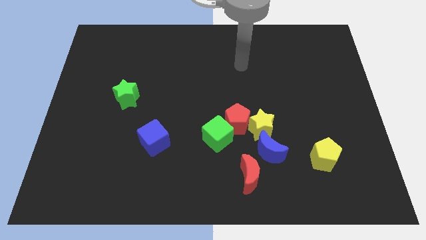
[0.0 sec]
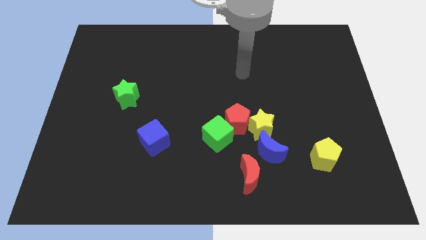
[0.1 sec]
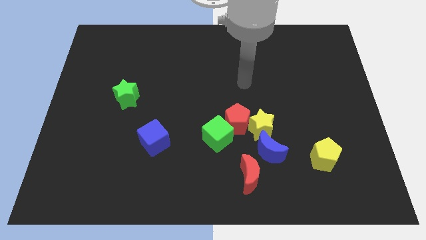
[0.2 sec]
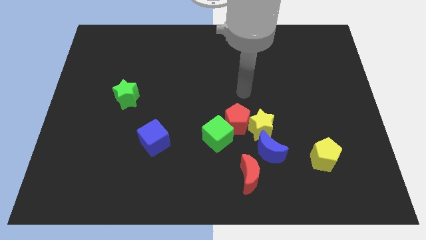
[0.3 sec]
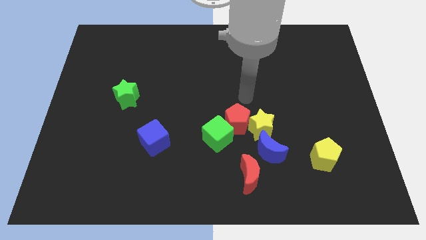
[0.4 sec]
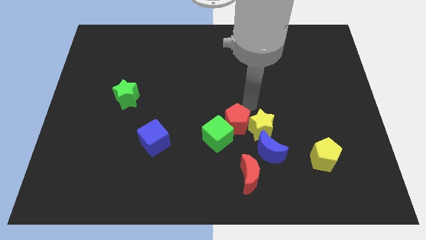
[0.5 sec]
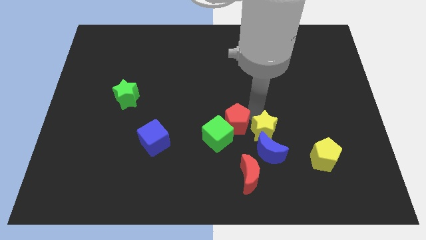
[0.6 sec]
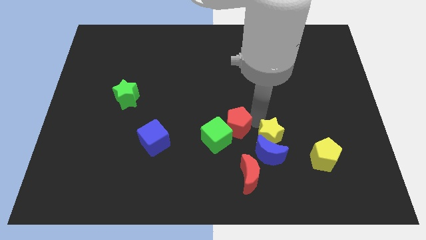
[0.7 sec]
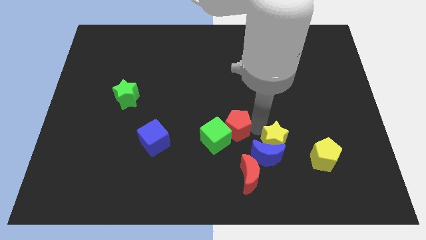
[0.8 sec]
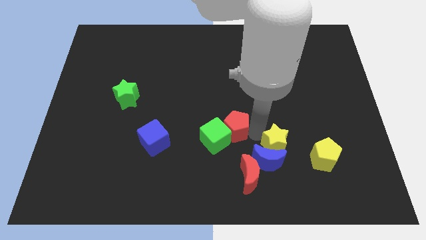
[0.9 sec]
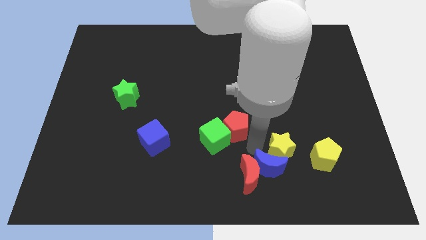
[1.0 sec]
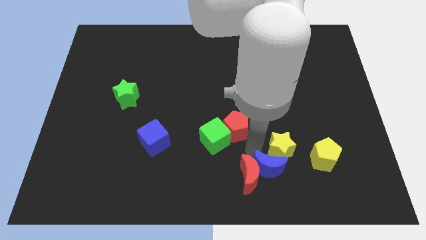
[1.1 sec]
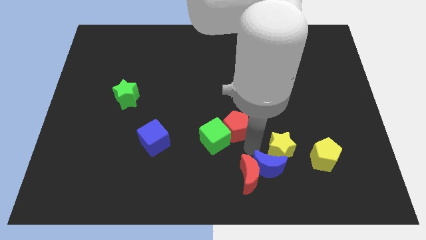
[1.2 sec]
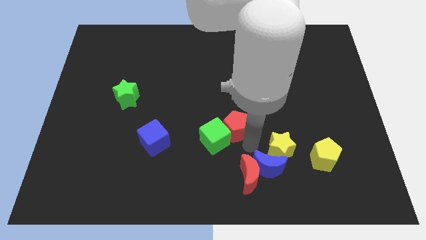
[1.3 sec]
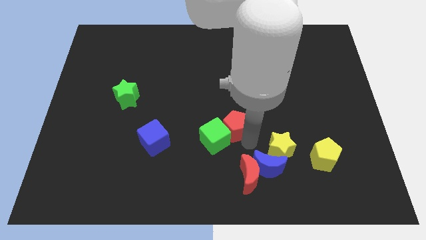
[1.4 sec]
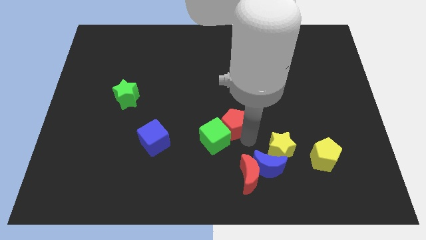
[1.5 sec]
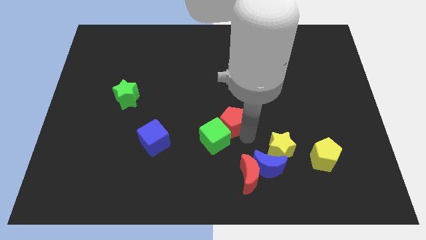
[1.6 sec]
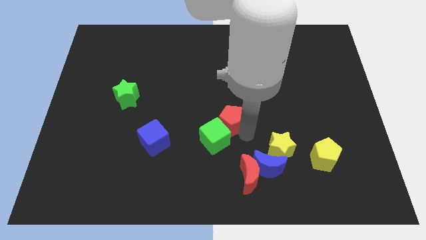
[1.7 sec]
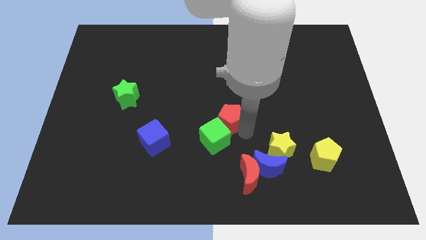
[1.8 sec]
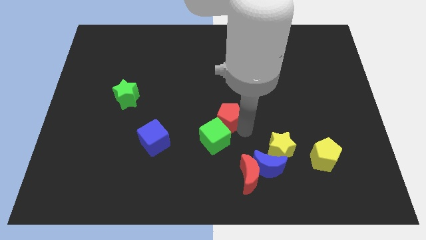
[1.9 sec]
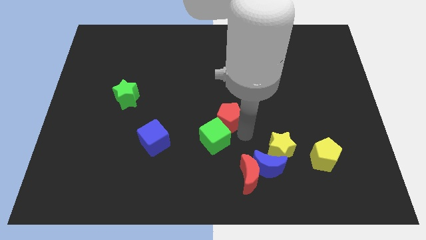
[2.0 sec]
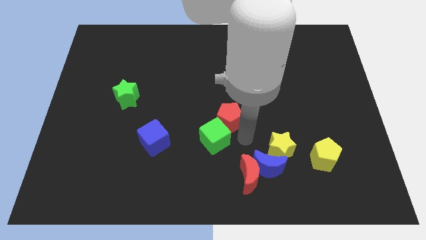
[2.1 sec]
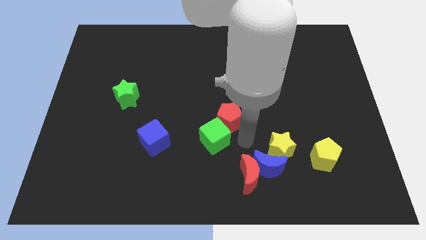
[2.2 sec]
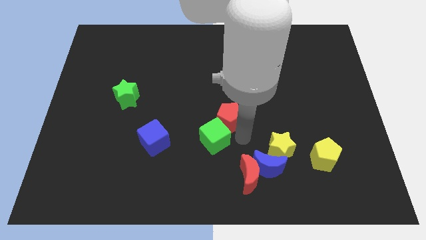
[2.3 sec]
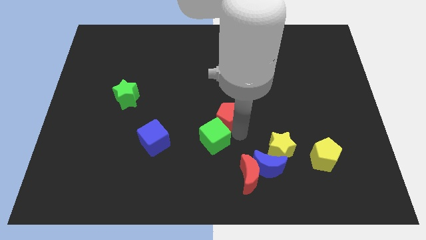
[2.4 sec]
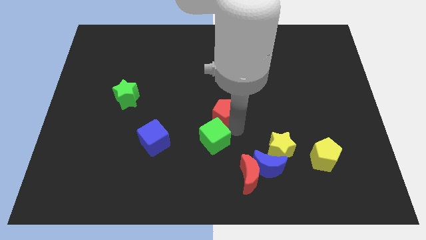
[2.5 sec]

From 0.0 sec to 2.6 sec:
pull the red pentagon apart from the yellow star, green cube, and blue moon

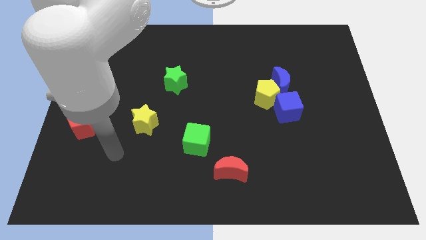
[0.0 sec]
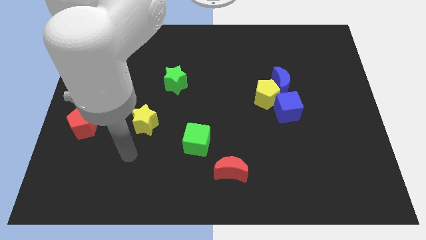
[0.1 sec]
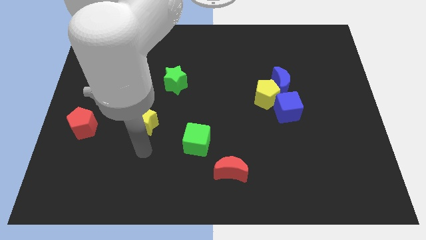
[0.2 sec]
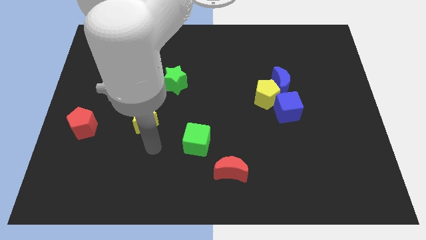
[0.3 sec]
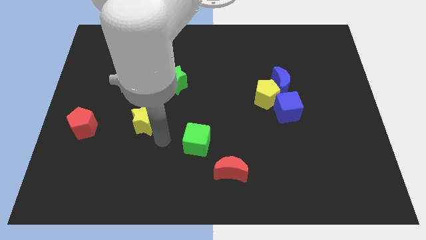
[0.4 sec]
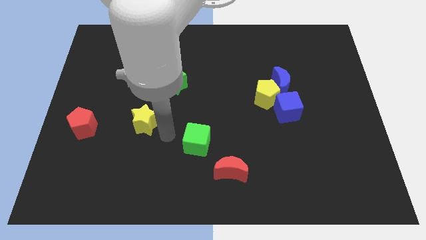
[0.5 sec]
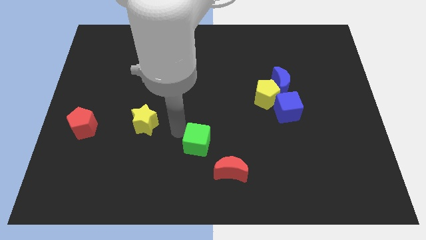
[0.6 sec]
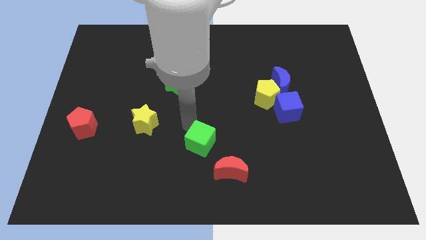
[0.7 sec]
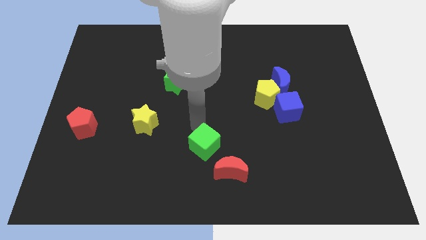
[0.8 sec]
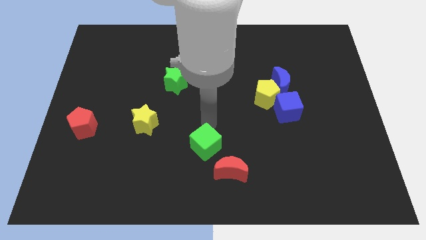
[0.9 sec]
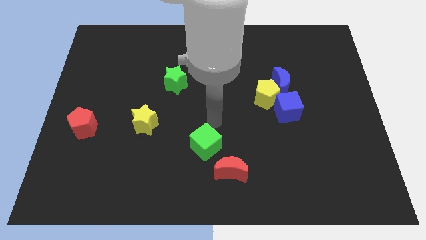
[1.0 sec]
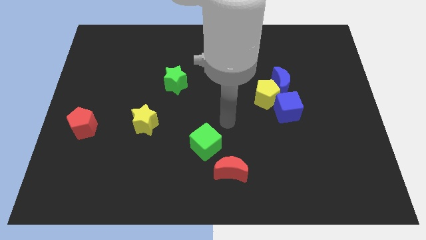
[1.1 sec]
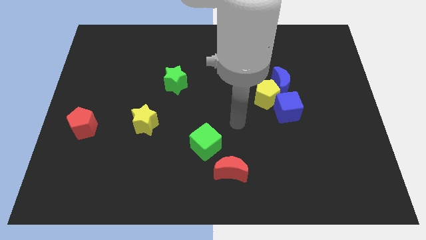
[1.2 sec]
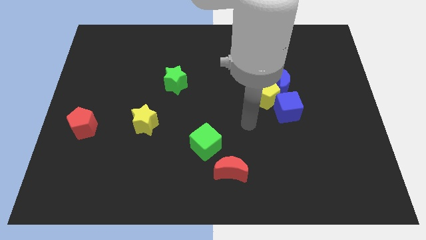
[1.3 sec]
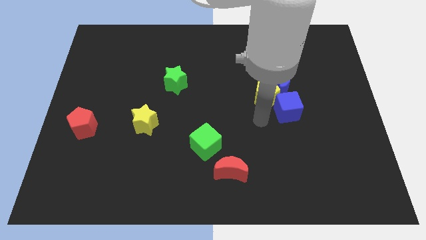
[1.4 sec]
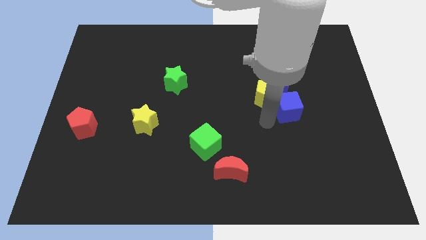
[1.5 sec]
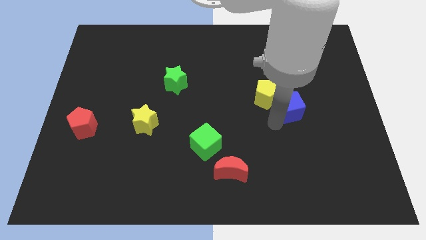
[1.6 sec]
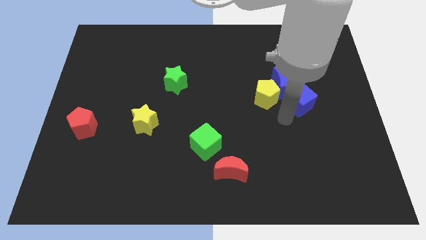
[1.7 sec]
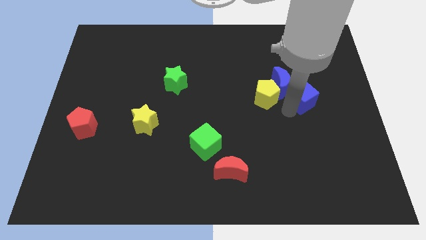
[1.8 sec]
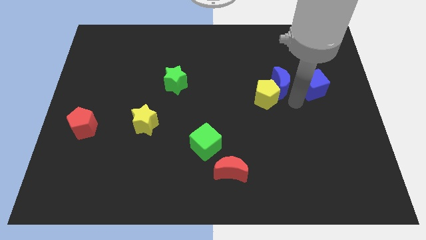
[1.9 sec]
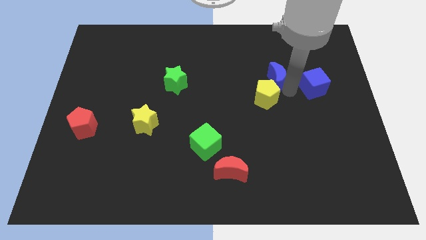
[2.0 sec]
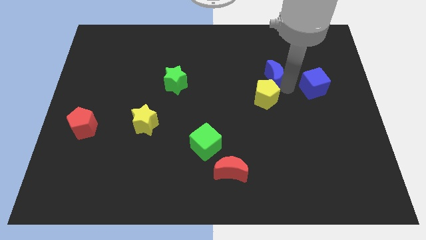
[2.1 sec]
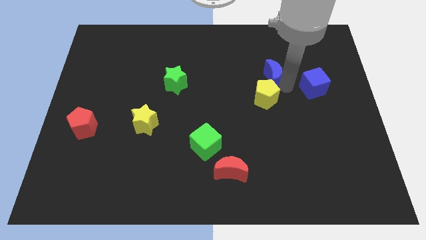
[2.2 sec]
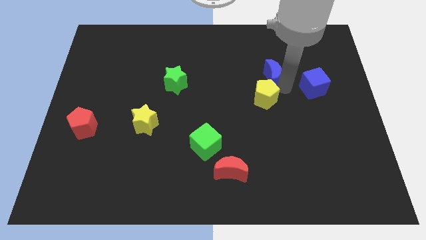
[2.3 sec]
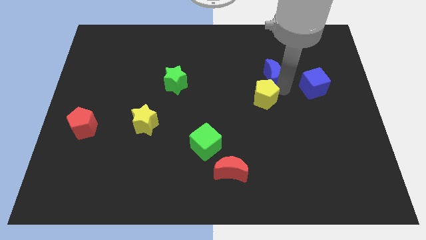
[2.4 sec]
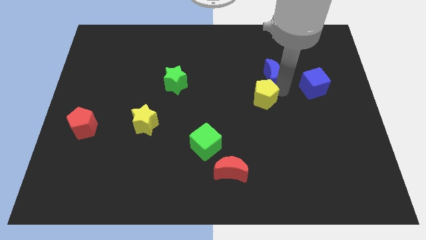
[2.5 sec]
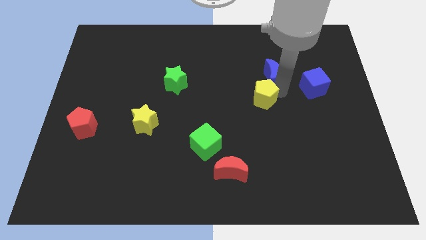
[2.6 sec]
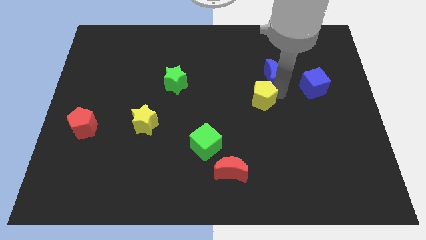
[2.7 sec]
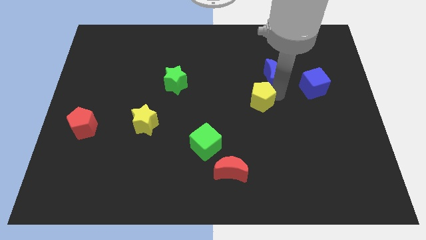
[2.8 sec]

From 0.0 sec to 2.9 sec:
separate the yellow pentagon from the blue moon and blue cube

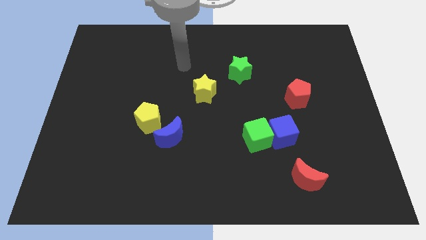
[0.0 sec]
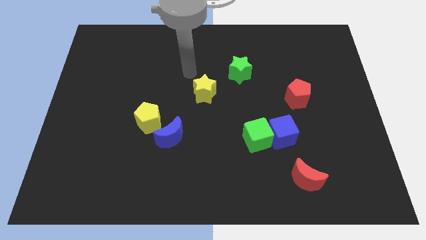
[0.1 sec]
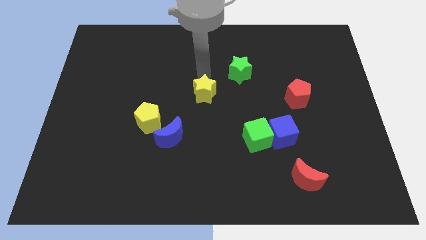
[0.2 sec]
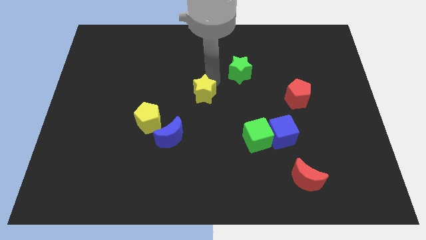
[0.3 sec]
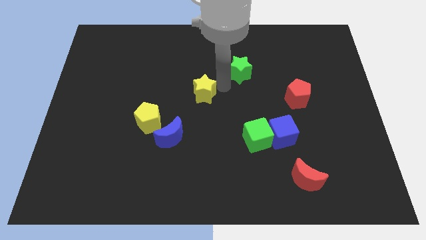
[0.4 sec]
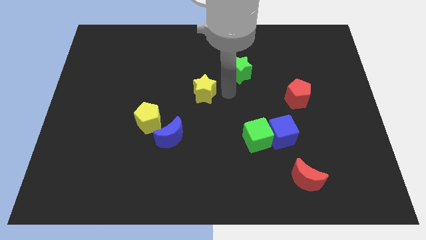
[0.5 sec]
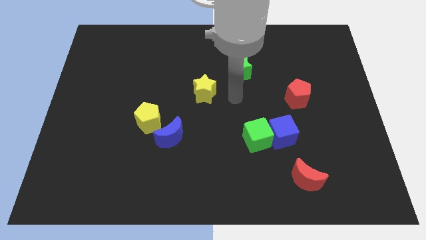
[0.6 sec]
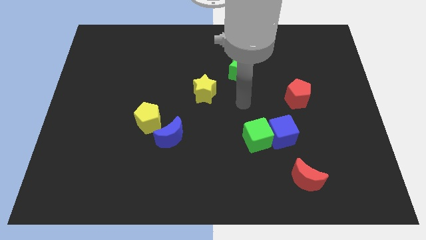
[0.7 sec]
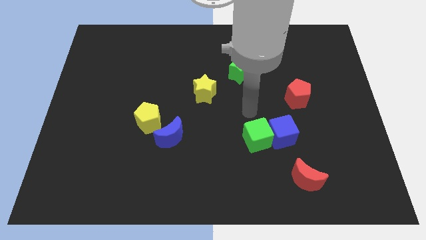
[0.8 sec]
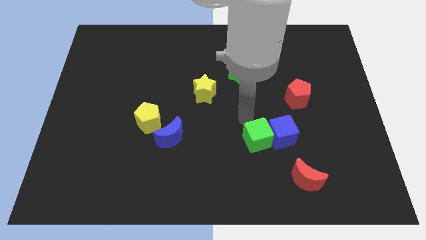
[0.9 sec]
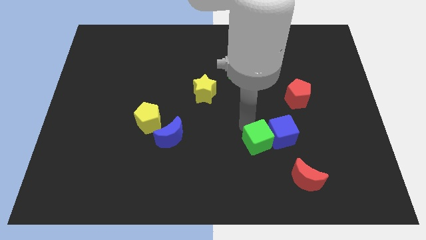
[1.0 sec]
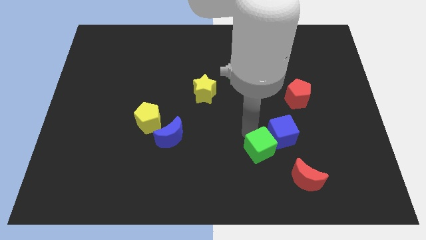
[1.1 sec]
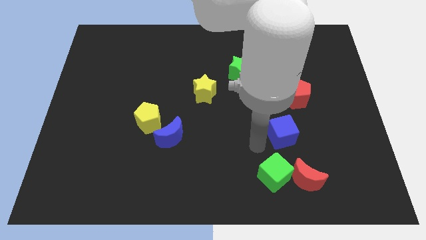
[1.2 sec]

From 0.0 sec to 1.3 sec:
pull the blue cube apart from the green cube

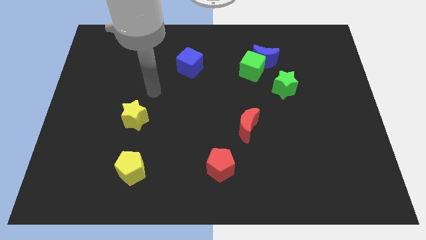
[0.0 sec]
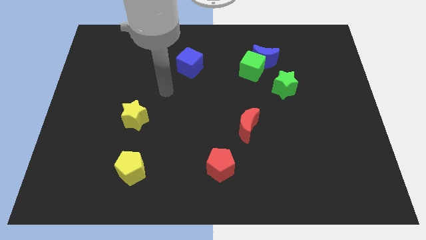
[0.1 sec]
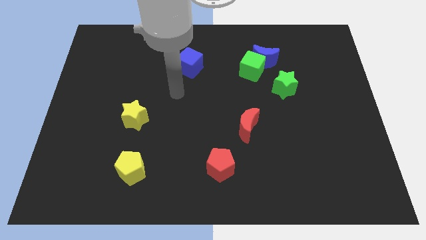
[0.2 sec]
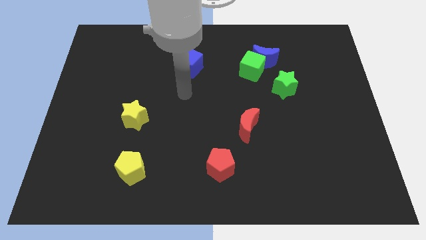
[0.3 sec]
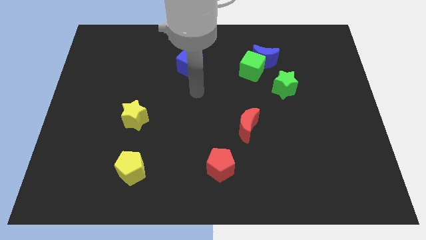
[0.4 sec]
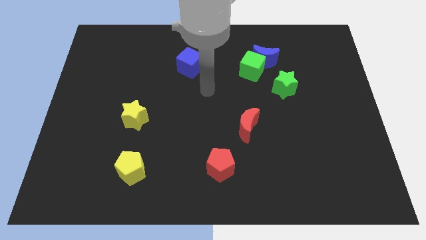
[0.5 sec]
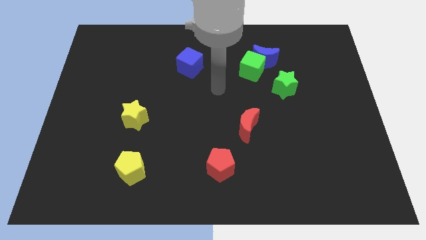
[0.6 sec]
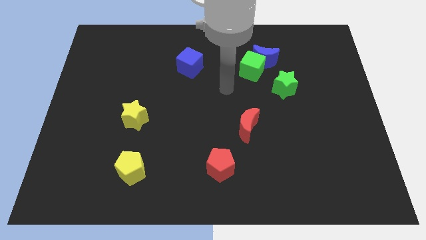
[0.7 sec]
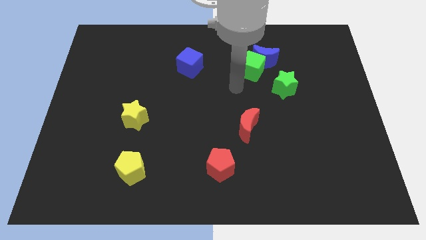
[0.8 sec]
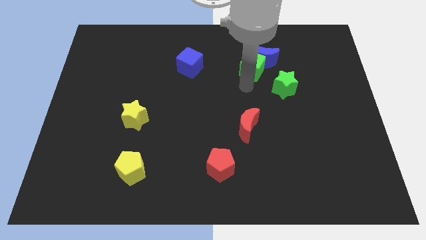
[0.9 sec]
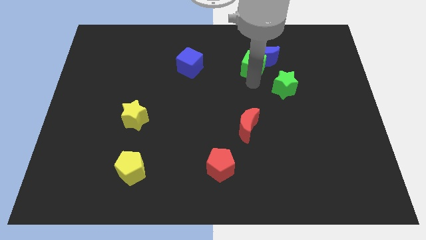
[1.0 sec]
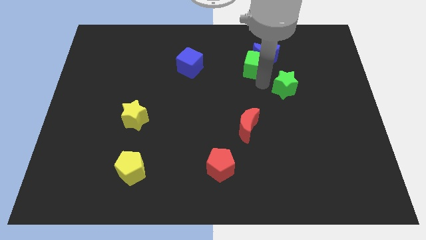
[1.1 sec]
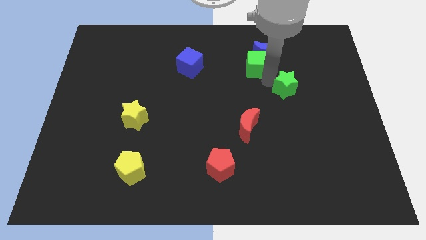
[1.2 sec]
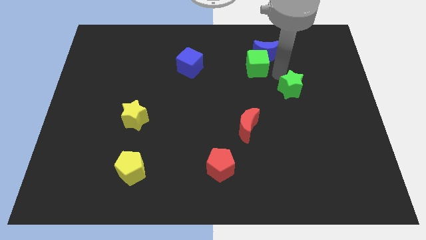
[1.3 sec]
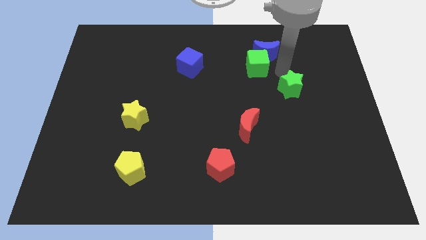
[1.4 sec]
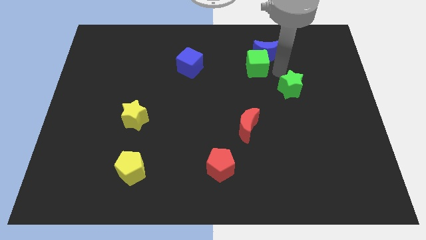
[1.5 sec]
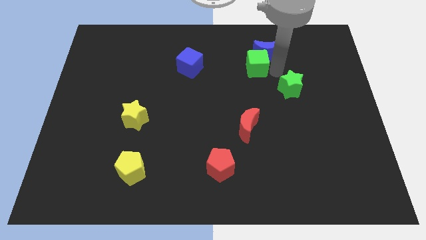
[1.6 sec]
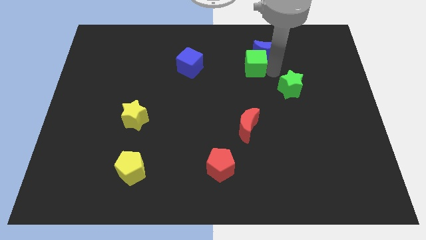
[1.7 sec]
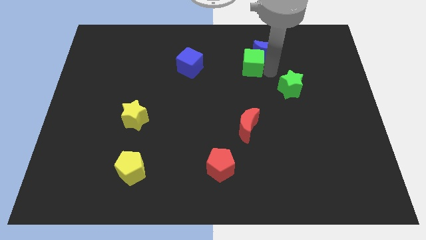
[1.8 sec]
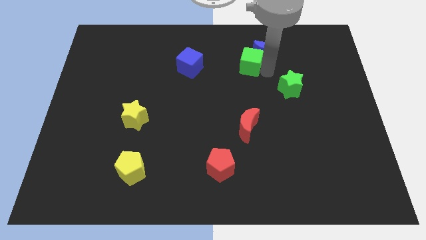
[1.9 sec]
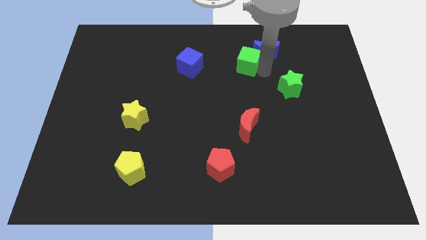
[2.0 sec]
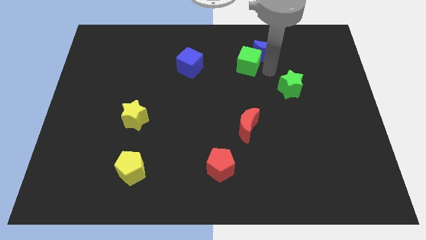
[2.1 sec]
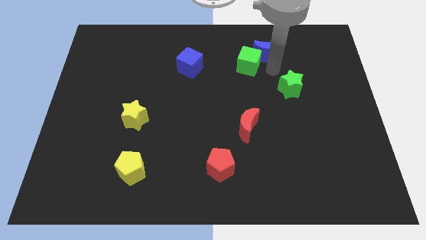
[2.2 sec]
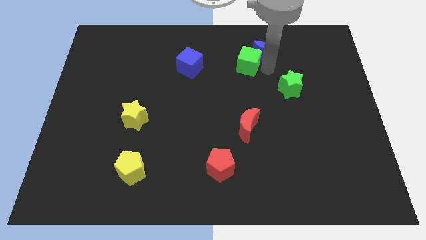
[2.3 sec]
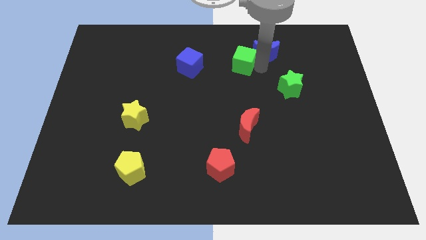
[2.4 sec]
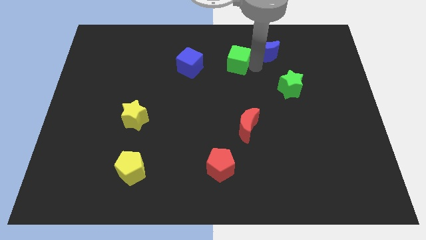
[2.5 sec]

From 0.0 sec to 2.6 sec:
separate the green cube from the blue moon and green star
